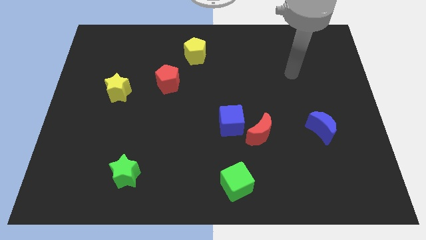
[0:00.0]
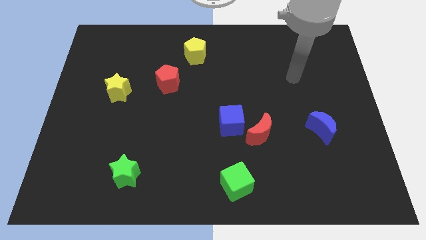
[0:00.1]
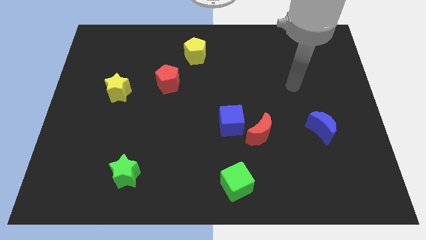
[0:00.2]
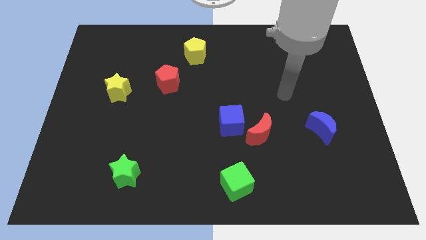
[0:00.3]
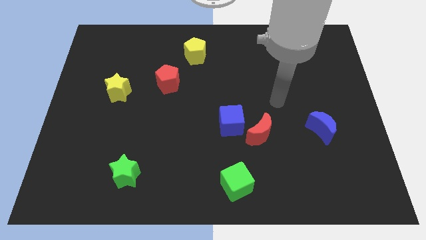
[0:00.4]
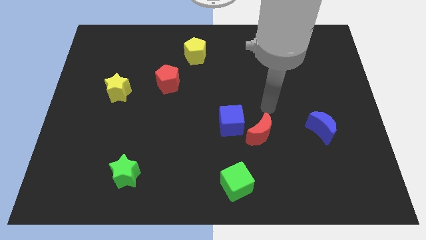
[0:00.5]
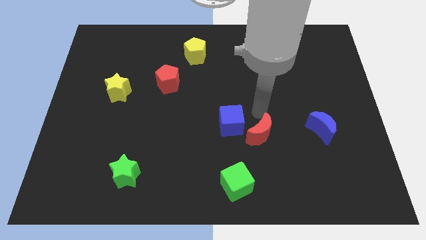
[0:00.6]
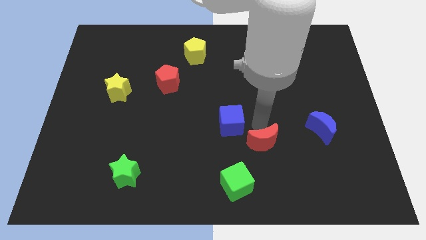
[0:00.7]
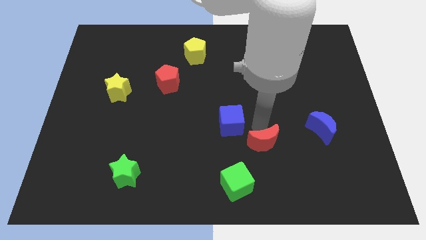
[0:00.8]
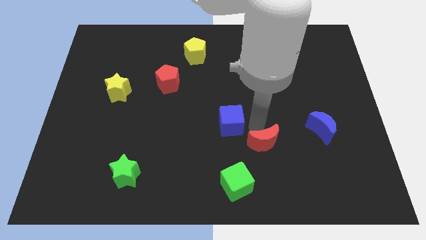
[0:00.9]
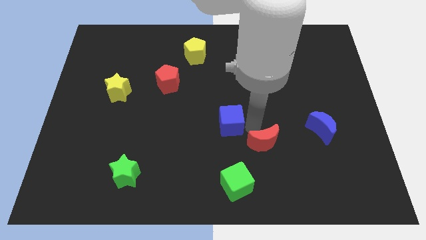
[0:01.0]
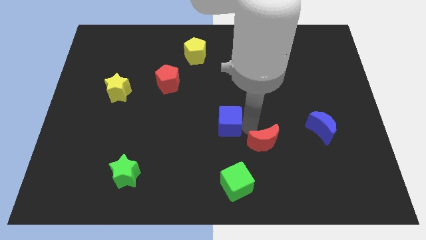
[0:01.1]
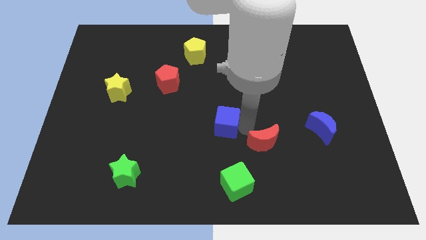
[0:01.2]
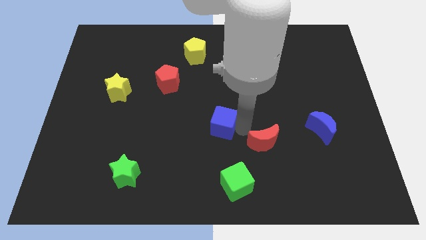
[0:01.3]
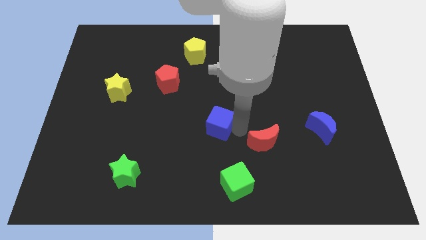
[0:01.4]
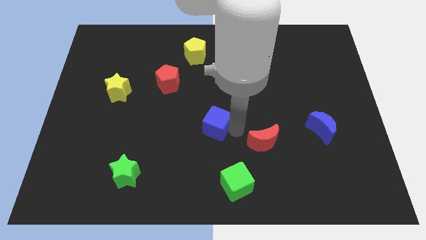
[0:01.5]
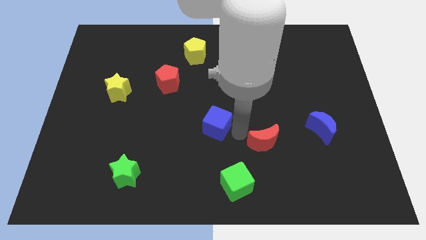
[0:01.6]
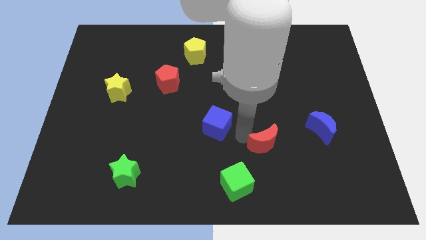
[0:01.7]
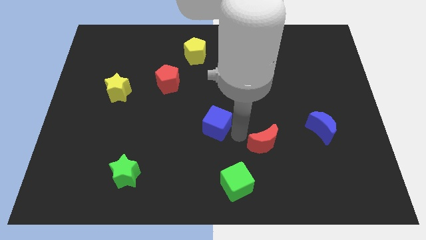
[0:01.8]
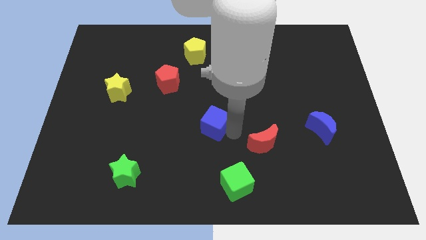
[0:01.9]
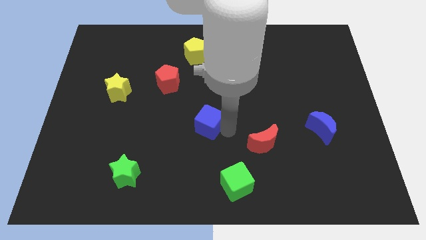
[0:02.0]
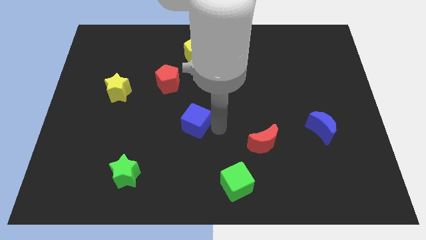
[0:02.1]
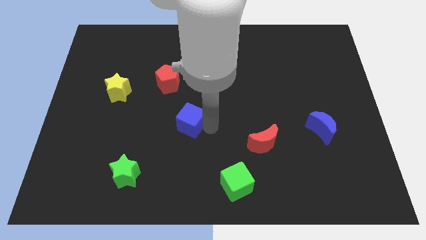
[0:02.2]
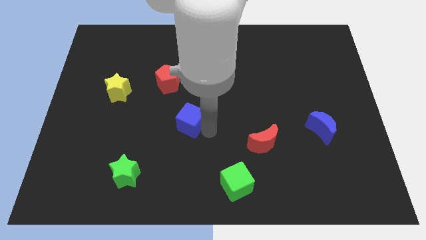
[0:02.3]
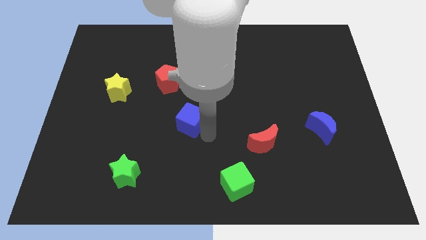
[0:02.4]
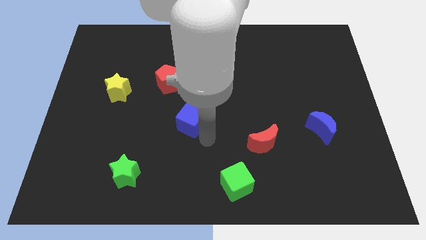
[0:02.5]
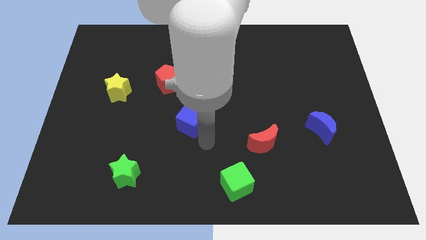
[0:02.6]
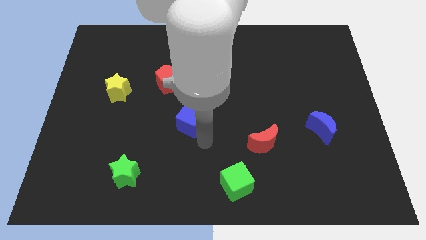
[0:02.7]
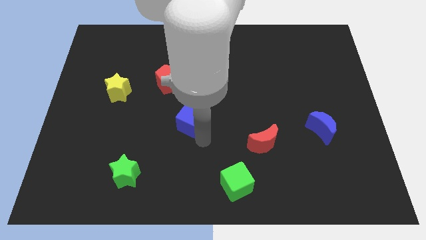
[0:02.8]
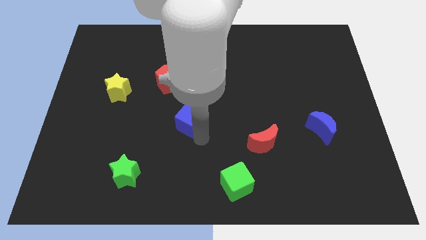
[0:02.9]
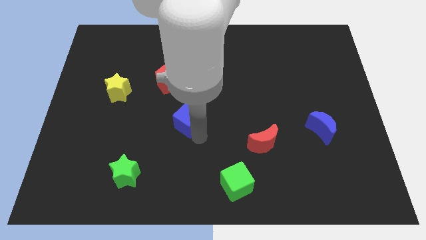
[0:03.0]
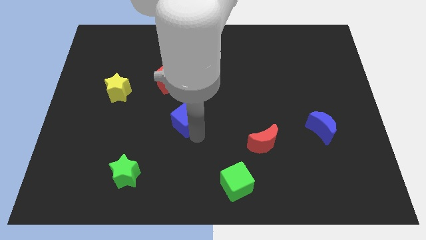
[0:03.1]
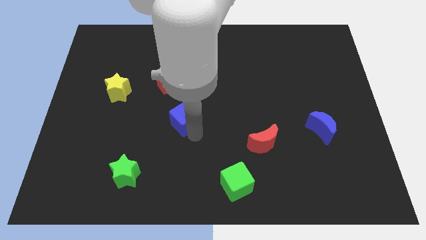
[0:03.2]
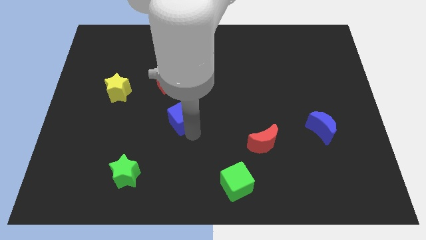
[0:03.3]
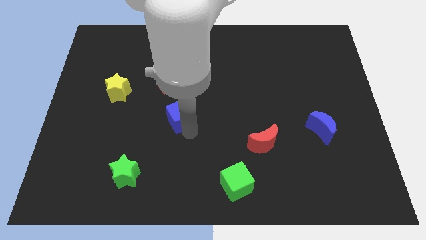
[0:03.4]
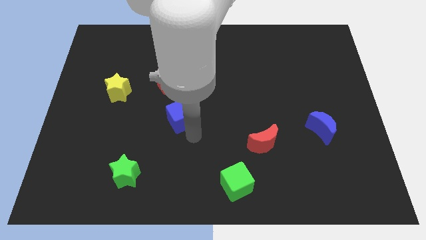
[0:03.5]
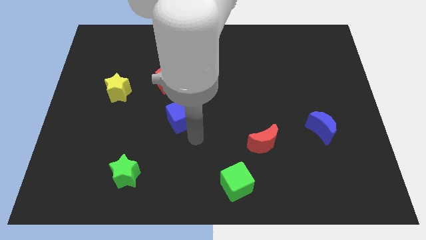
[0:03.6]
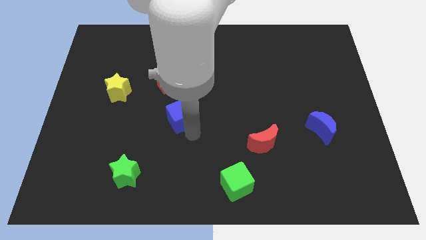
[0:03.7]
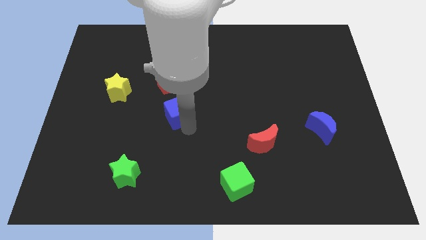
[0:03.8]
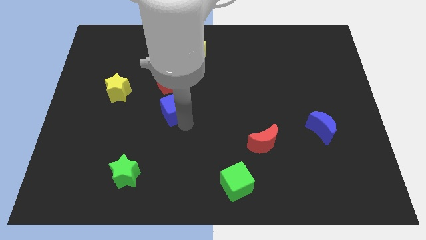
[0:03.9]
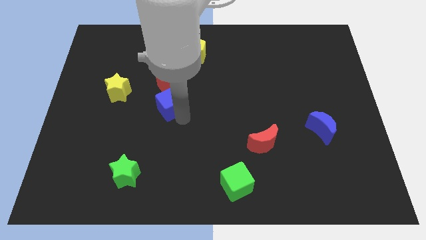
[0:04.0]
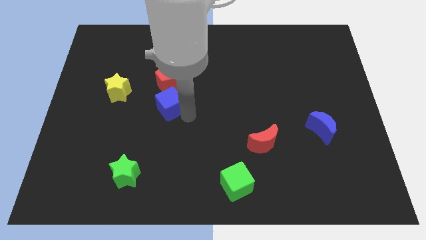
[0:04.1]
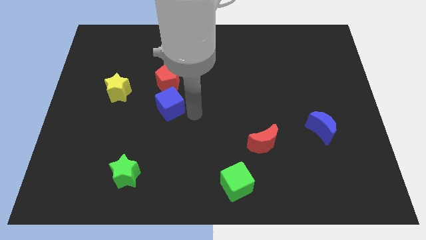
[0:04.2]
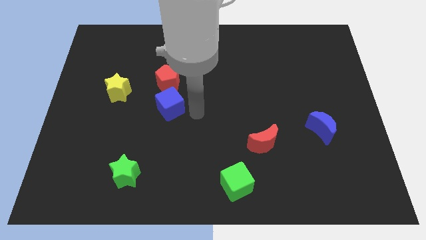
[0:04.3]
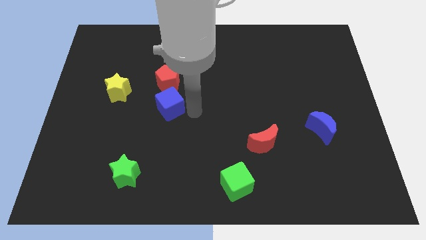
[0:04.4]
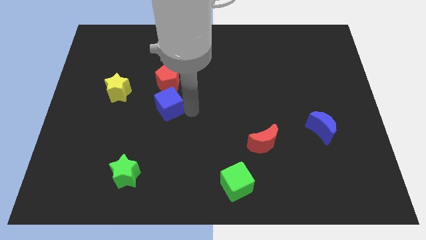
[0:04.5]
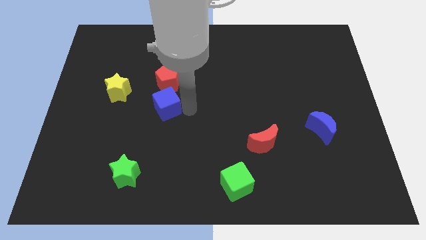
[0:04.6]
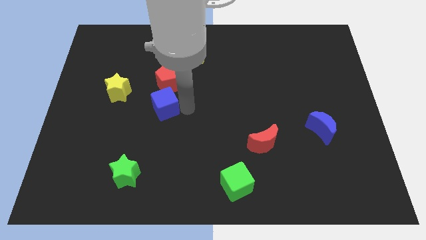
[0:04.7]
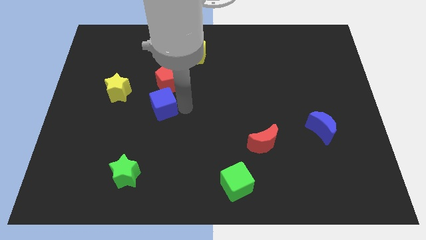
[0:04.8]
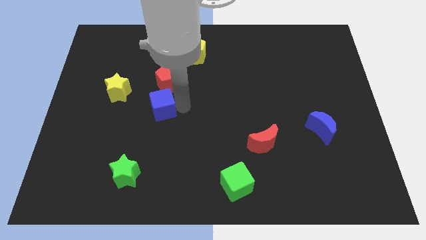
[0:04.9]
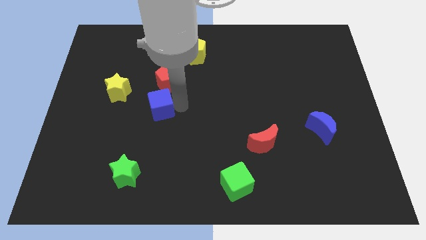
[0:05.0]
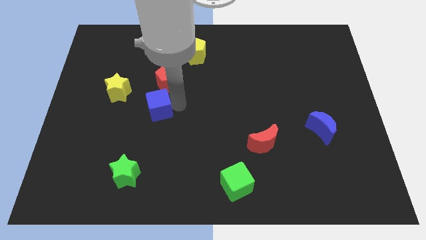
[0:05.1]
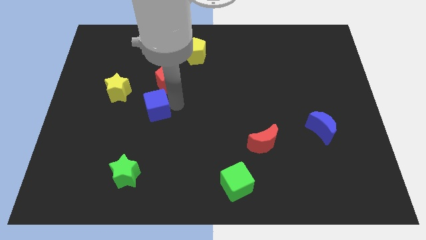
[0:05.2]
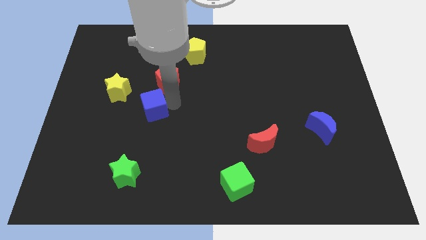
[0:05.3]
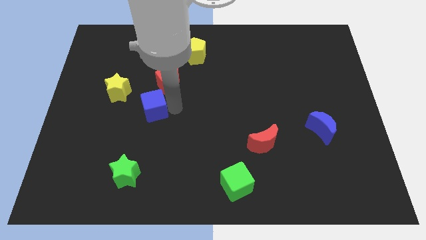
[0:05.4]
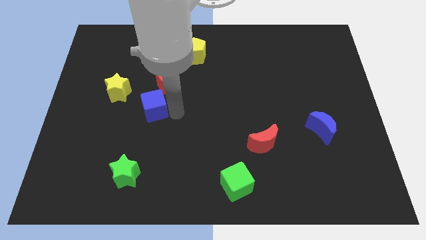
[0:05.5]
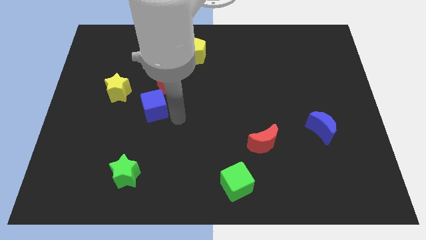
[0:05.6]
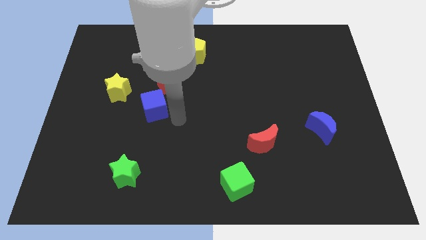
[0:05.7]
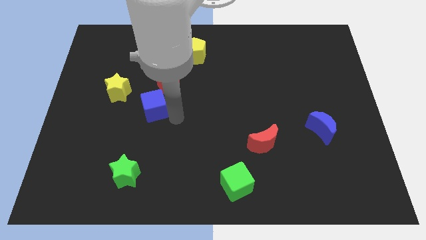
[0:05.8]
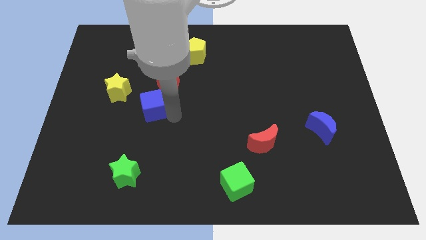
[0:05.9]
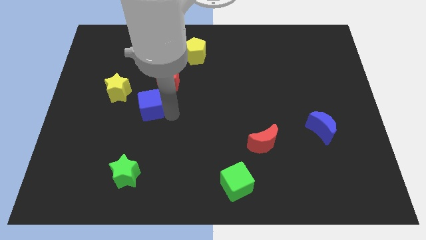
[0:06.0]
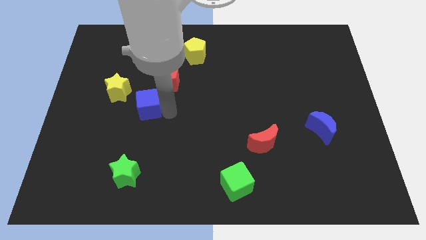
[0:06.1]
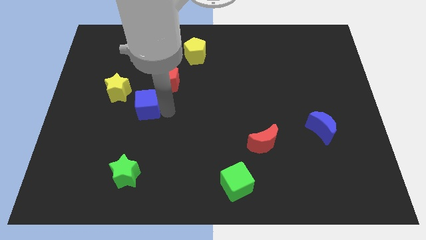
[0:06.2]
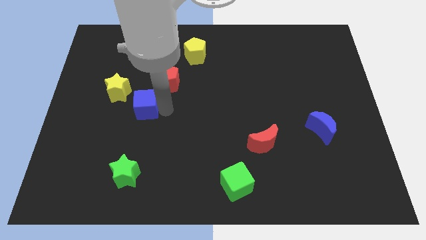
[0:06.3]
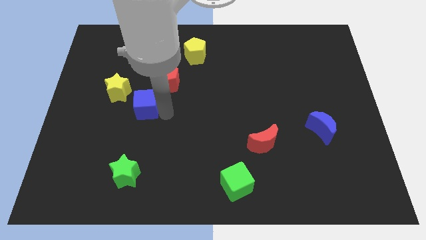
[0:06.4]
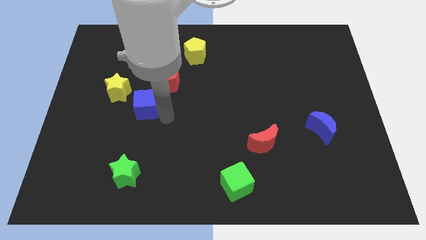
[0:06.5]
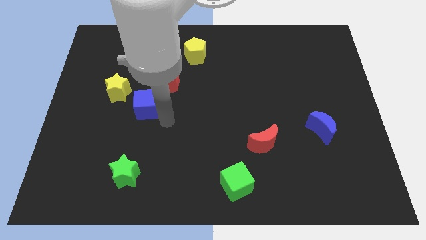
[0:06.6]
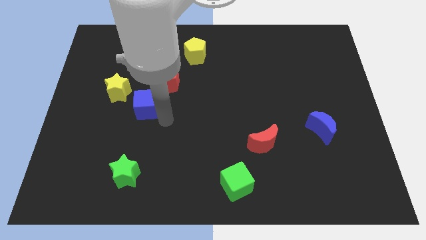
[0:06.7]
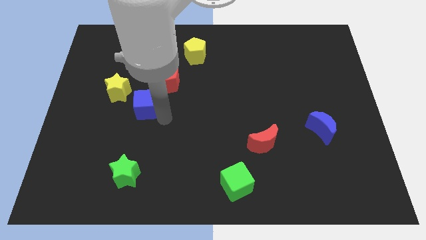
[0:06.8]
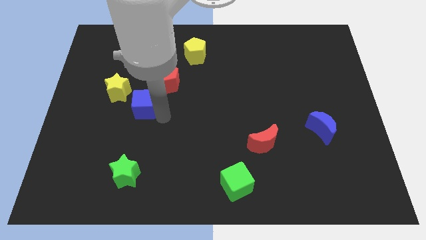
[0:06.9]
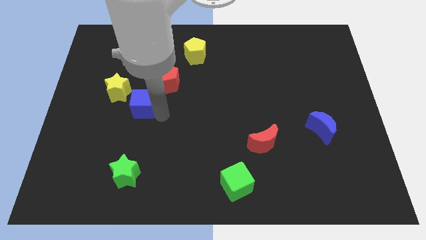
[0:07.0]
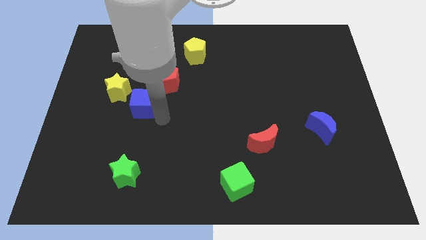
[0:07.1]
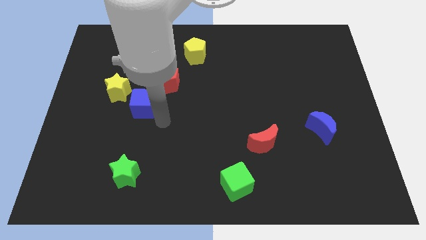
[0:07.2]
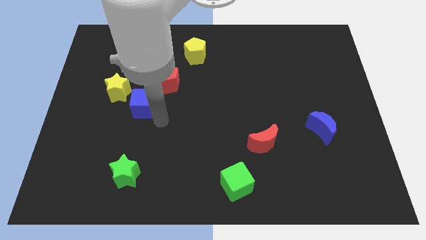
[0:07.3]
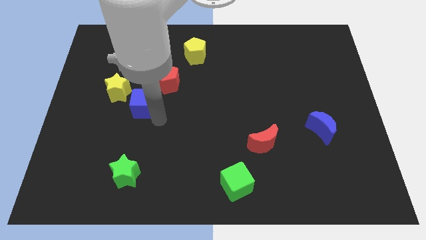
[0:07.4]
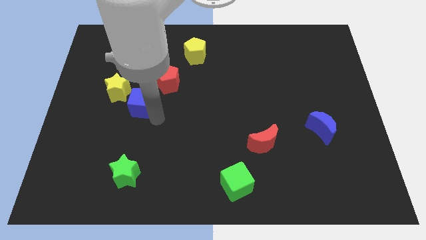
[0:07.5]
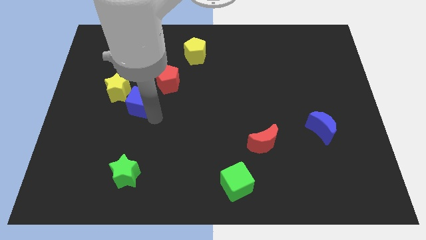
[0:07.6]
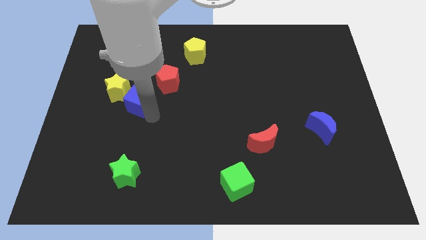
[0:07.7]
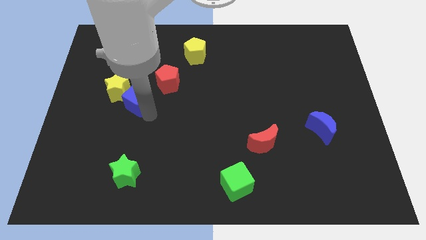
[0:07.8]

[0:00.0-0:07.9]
put the blue cube towards the yellow star
